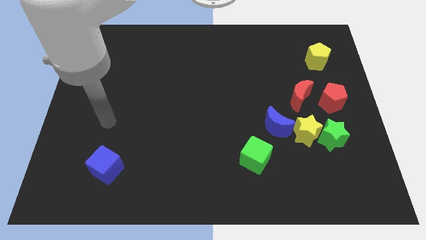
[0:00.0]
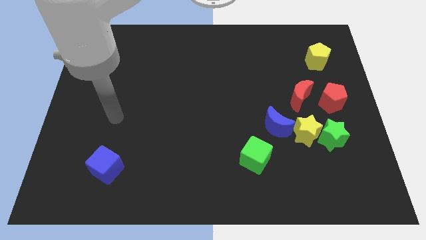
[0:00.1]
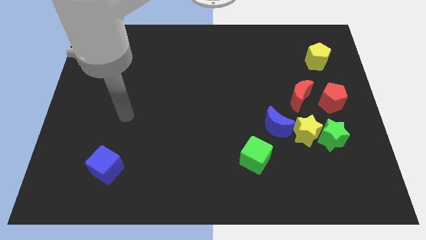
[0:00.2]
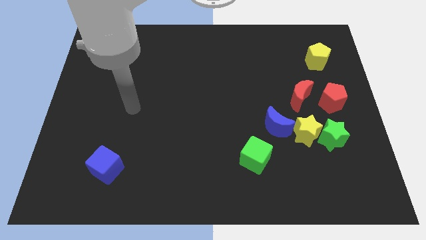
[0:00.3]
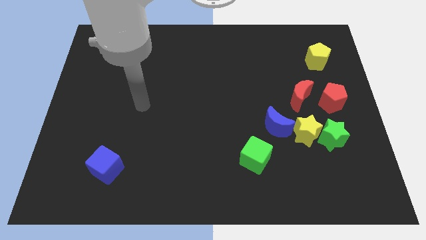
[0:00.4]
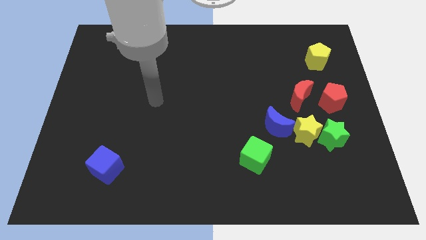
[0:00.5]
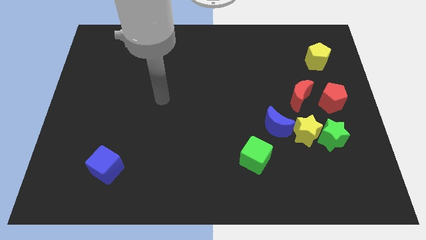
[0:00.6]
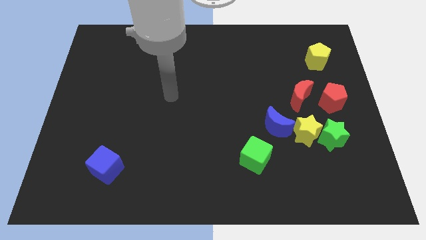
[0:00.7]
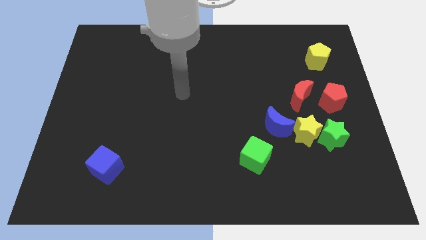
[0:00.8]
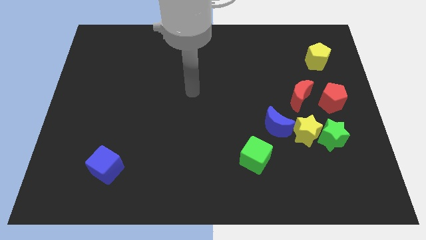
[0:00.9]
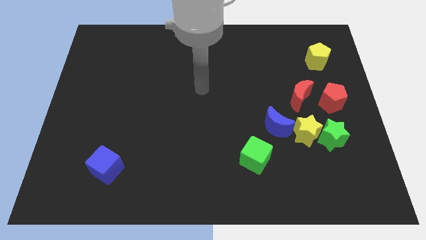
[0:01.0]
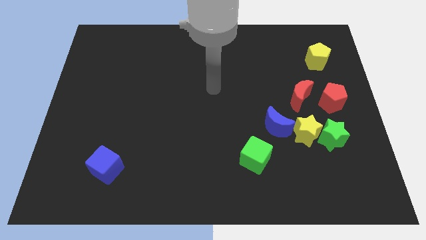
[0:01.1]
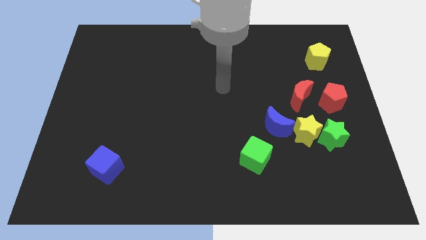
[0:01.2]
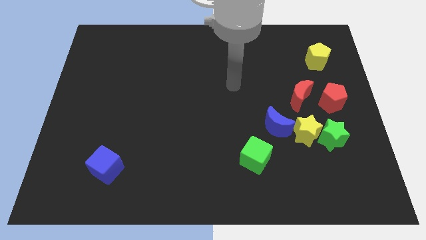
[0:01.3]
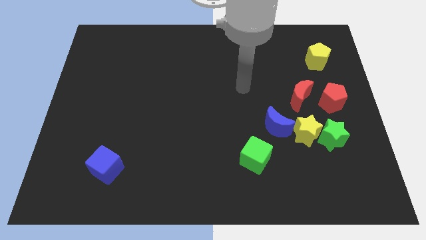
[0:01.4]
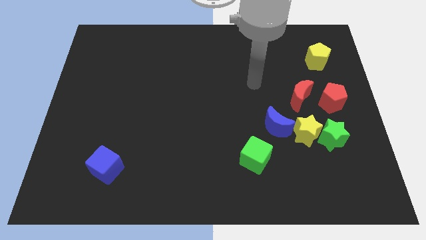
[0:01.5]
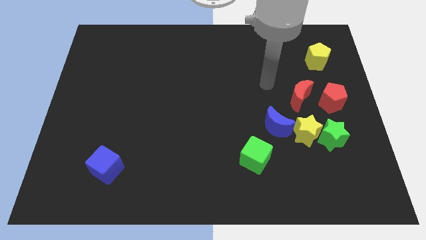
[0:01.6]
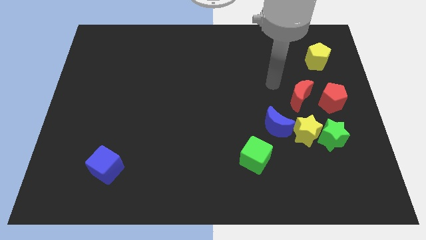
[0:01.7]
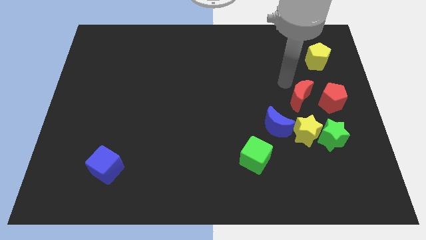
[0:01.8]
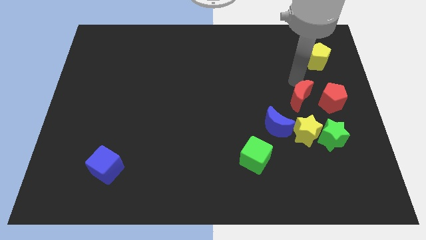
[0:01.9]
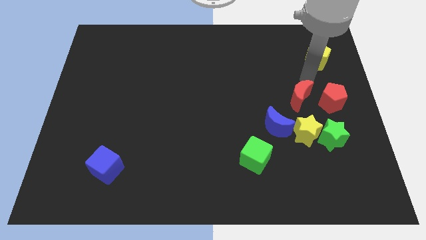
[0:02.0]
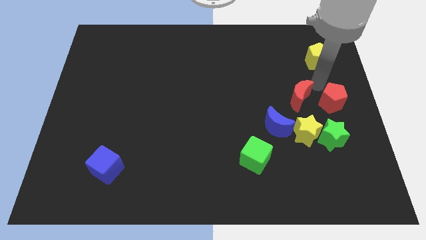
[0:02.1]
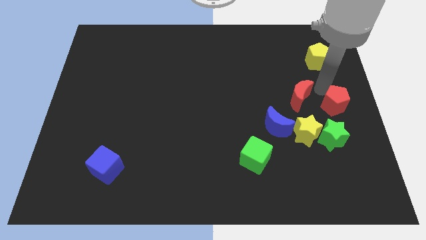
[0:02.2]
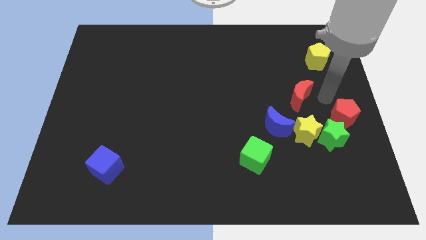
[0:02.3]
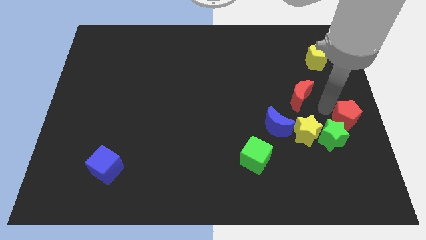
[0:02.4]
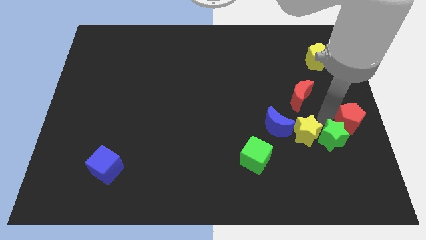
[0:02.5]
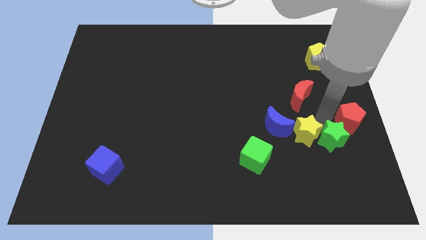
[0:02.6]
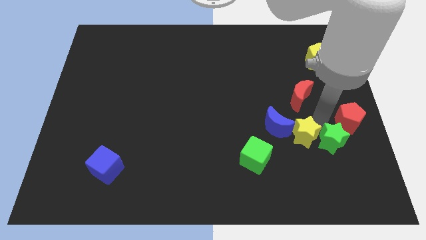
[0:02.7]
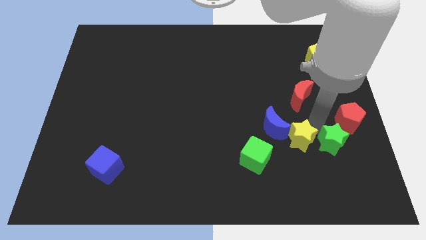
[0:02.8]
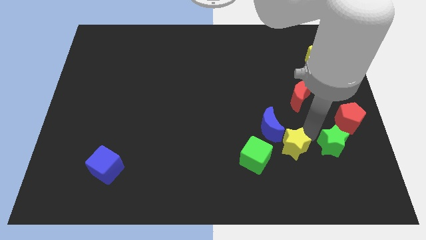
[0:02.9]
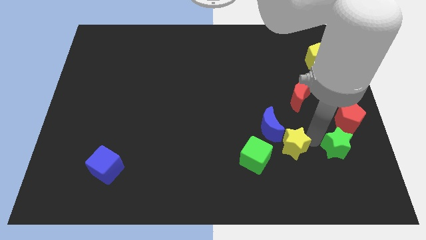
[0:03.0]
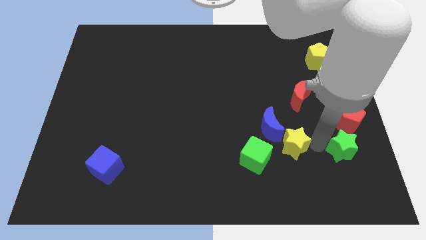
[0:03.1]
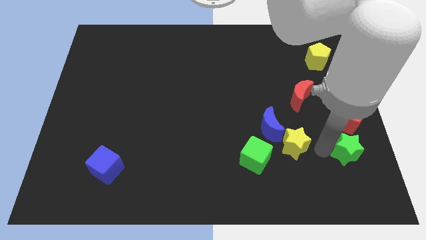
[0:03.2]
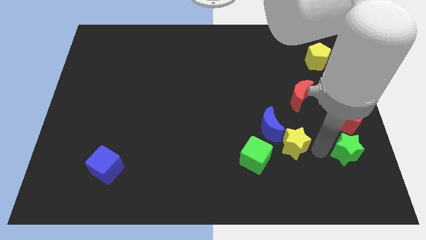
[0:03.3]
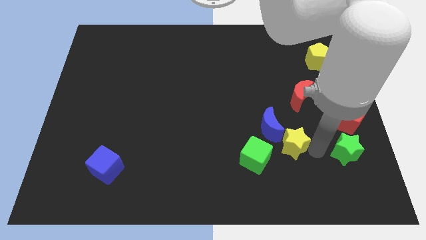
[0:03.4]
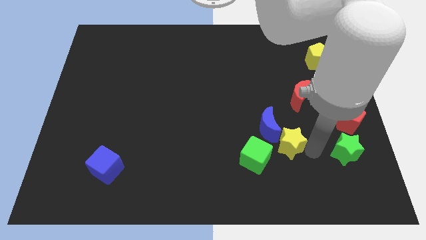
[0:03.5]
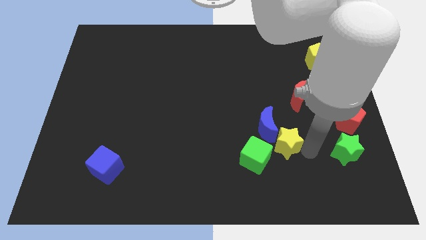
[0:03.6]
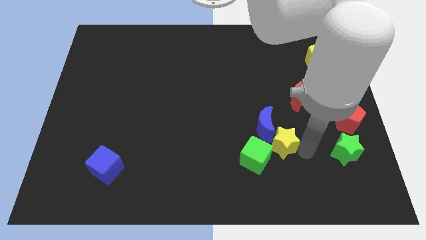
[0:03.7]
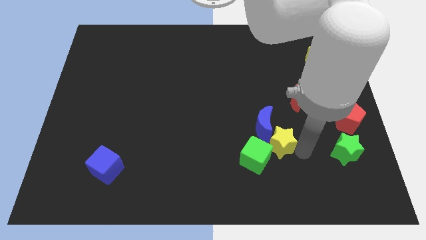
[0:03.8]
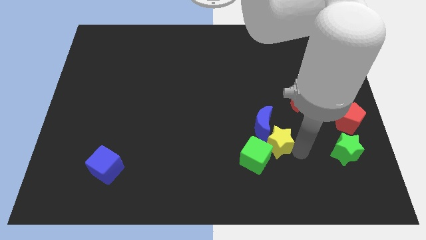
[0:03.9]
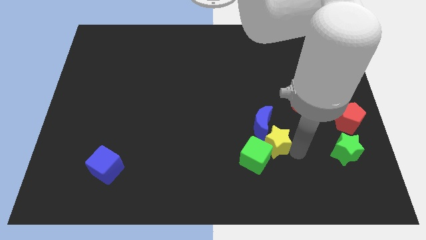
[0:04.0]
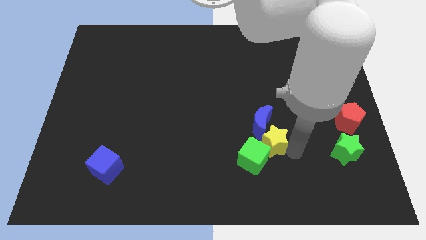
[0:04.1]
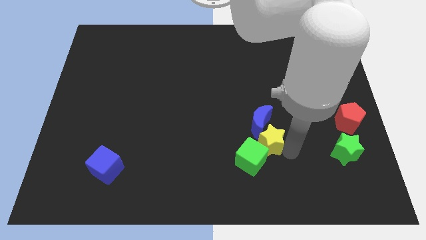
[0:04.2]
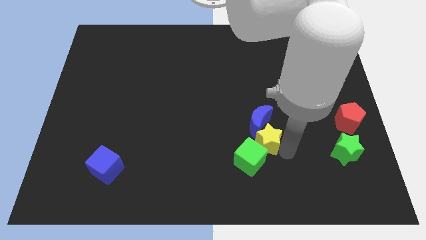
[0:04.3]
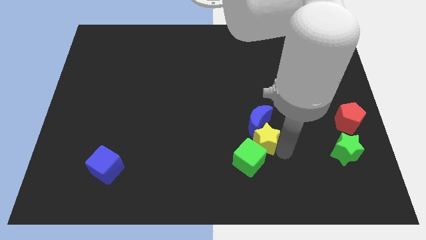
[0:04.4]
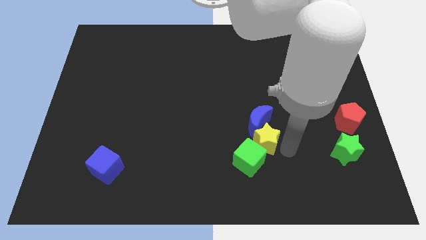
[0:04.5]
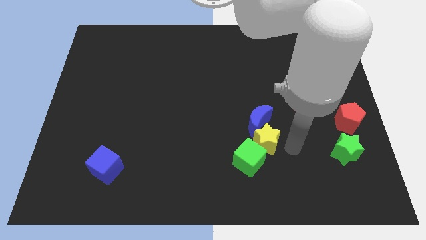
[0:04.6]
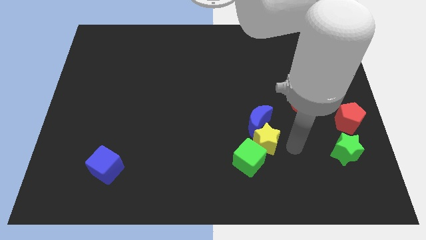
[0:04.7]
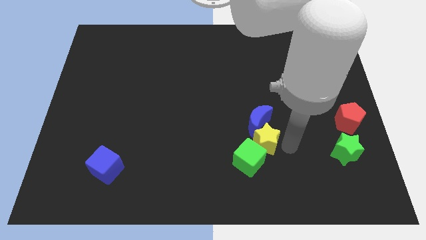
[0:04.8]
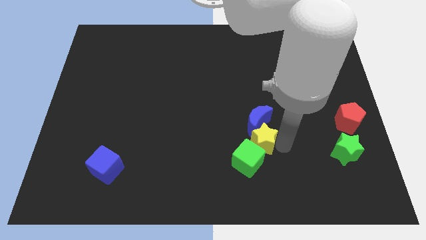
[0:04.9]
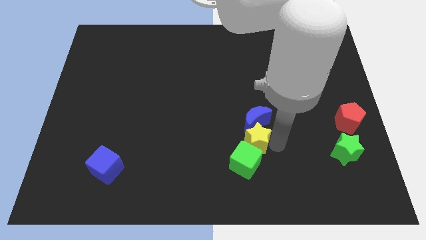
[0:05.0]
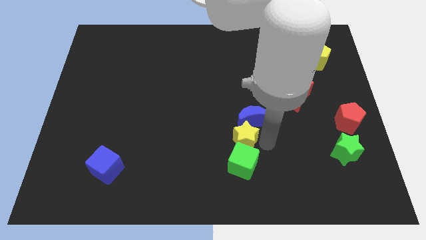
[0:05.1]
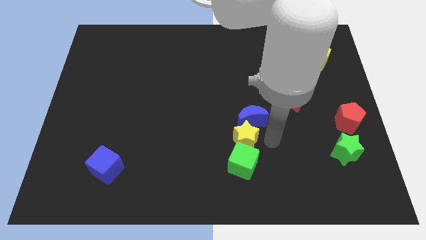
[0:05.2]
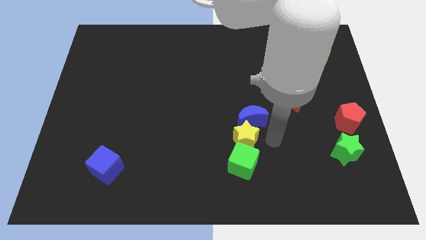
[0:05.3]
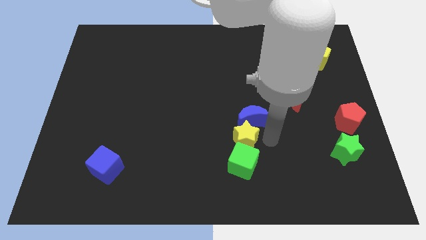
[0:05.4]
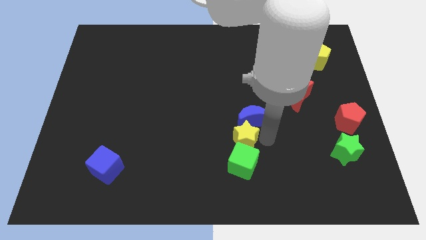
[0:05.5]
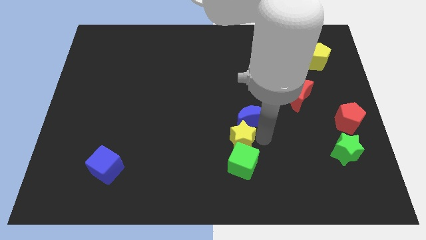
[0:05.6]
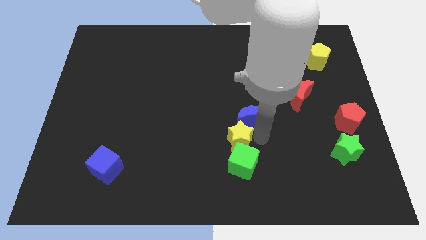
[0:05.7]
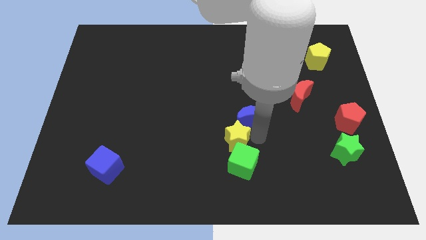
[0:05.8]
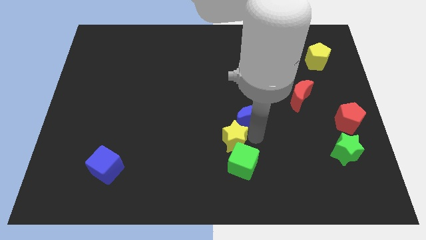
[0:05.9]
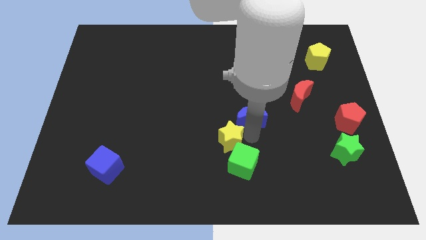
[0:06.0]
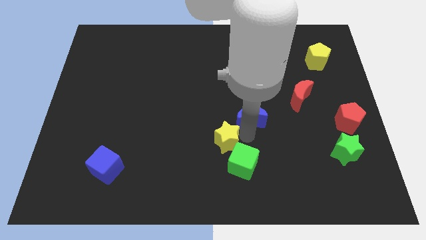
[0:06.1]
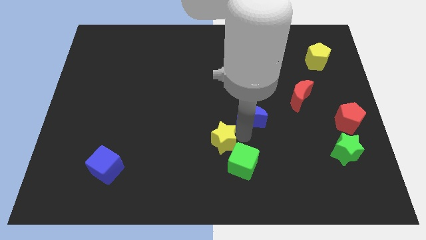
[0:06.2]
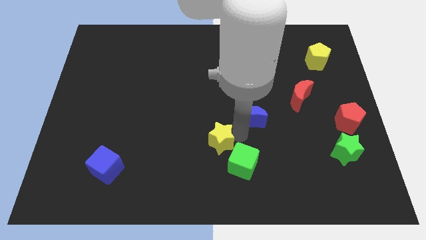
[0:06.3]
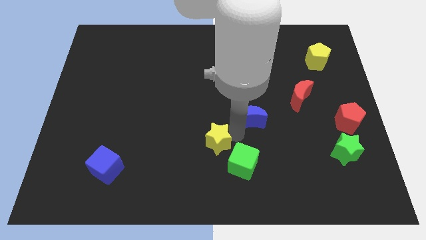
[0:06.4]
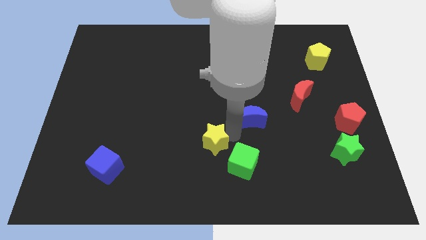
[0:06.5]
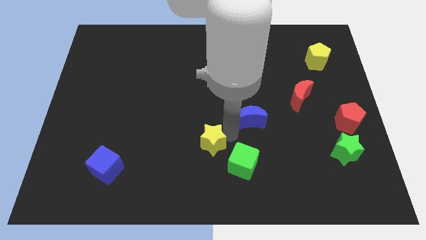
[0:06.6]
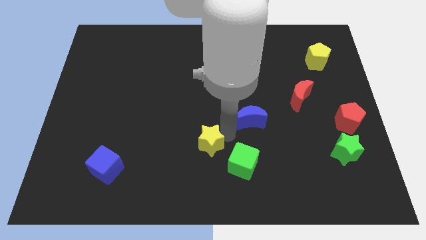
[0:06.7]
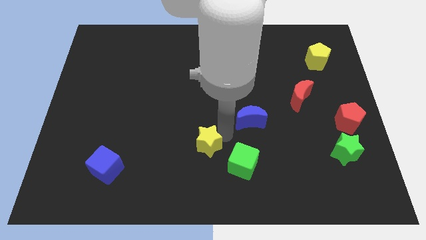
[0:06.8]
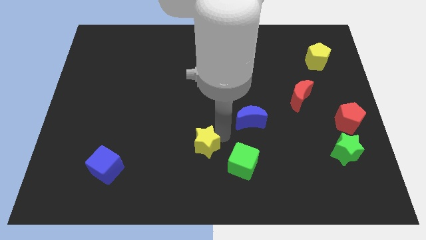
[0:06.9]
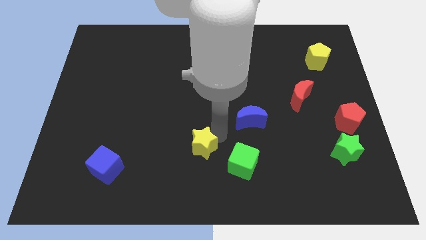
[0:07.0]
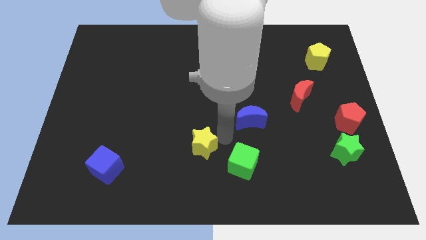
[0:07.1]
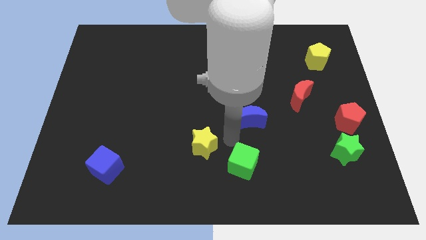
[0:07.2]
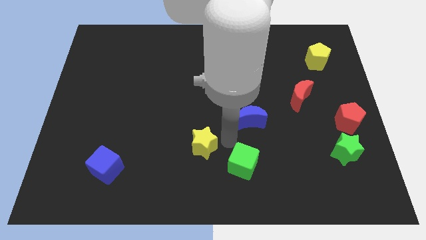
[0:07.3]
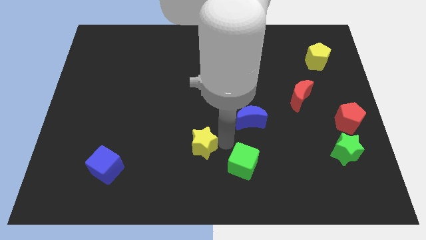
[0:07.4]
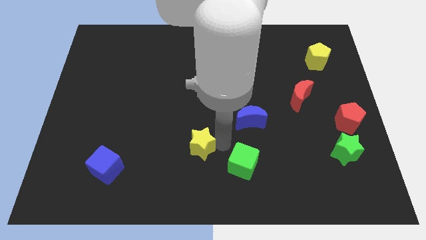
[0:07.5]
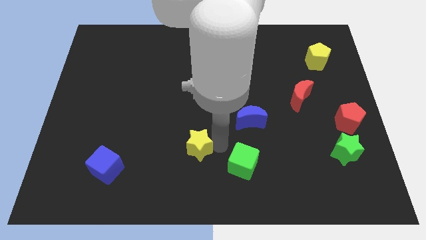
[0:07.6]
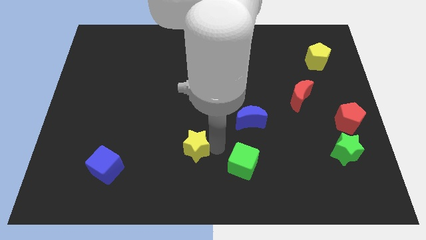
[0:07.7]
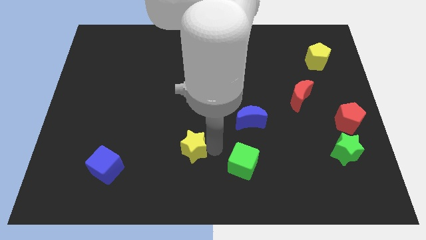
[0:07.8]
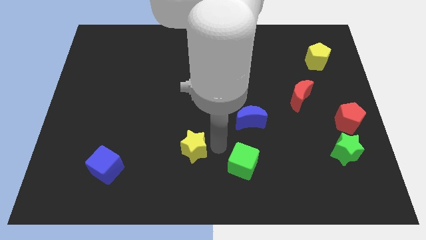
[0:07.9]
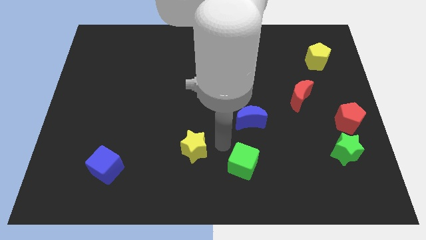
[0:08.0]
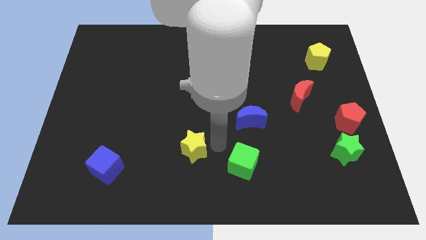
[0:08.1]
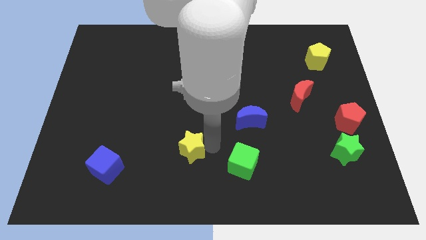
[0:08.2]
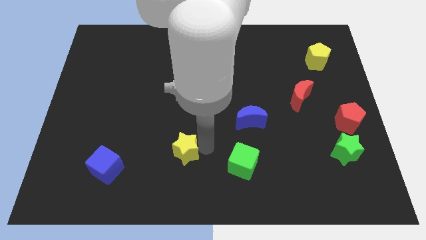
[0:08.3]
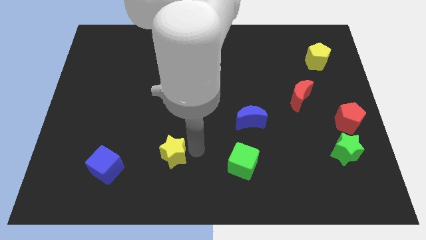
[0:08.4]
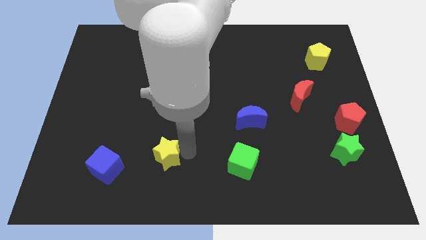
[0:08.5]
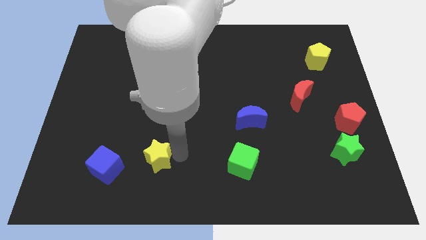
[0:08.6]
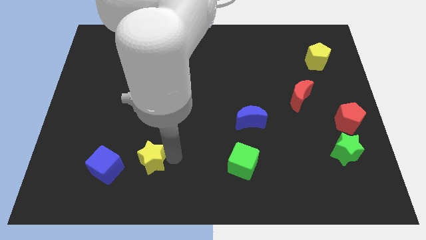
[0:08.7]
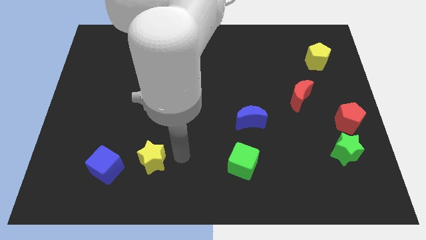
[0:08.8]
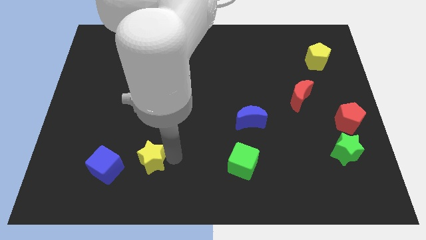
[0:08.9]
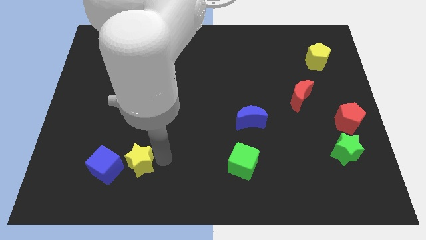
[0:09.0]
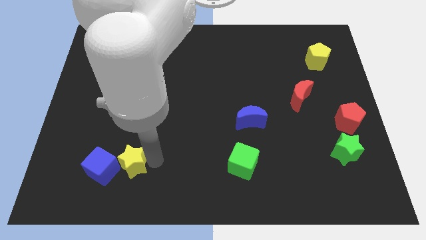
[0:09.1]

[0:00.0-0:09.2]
slide the yellow star next to the blue cube
